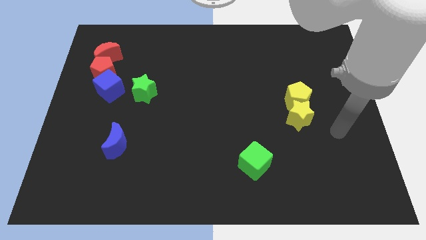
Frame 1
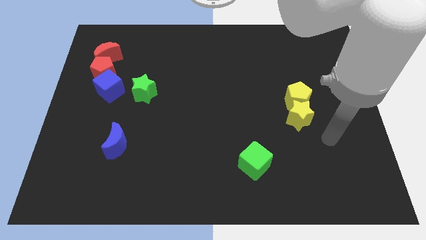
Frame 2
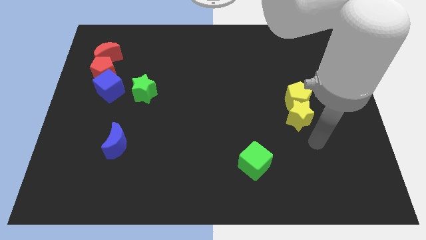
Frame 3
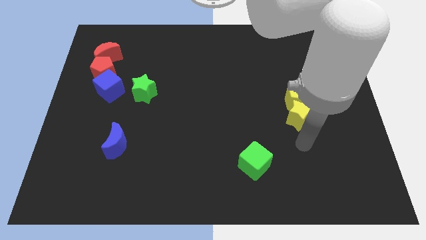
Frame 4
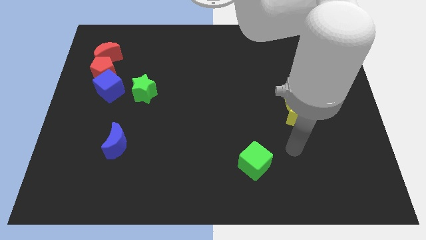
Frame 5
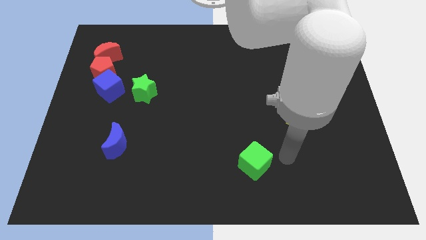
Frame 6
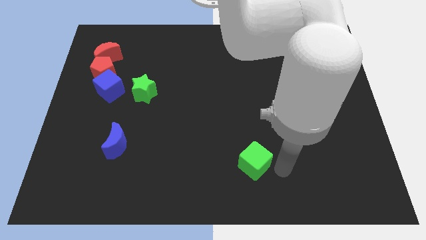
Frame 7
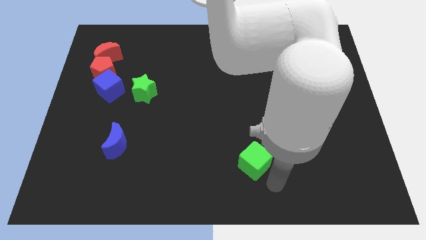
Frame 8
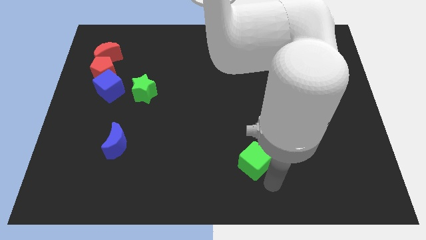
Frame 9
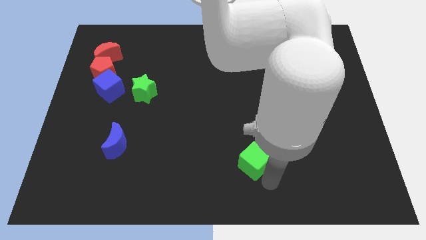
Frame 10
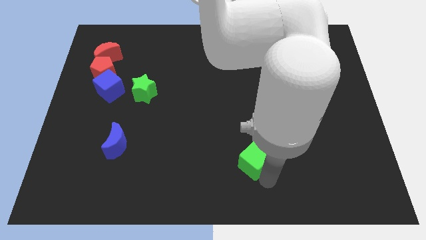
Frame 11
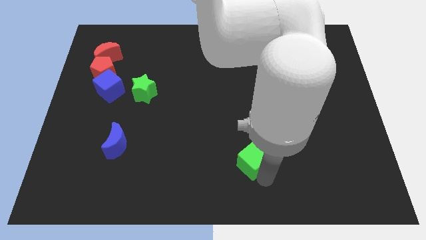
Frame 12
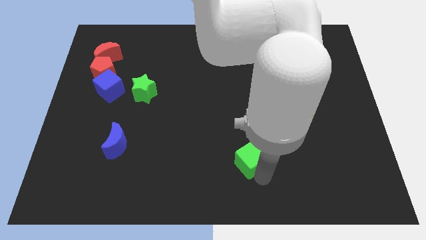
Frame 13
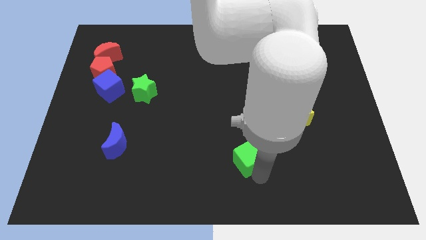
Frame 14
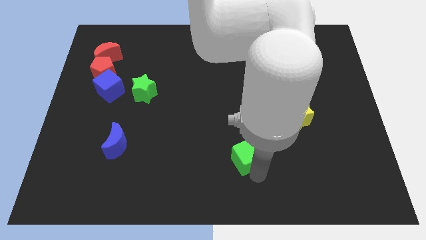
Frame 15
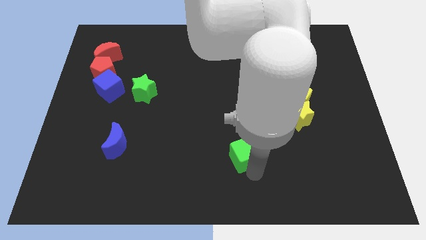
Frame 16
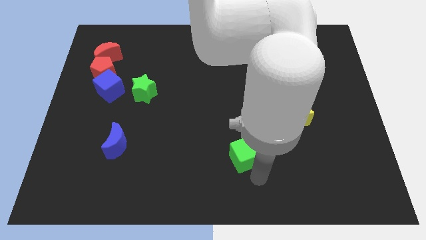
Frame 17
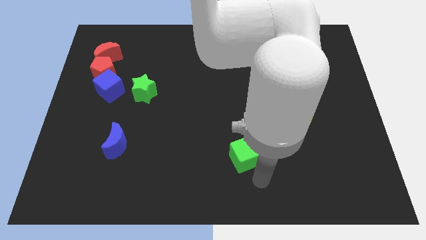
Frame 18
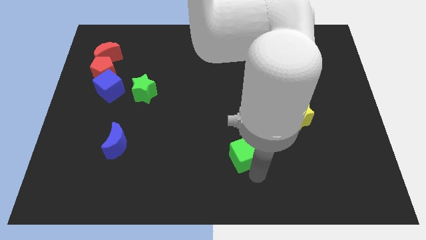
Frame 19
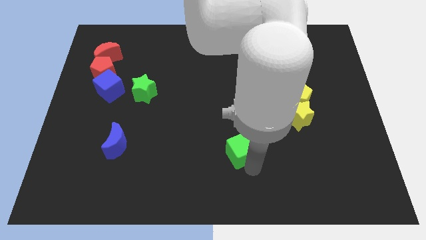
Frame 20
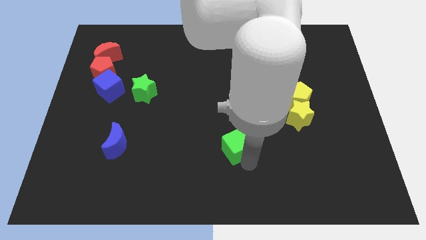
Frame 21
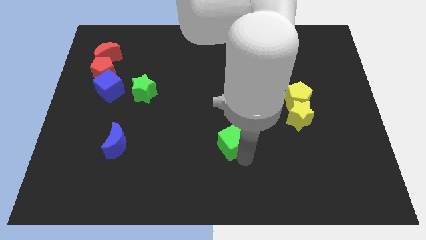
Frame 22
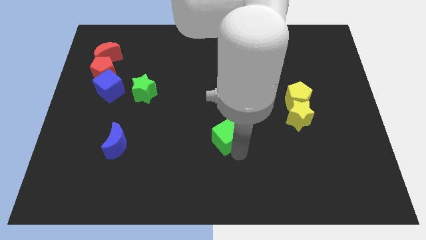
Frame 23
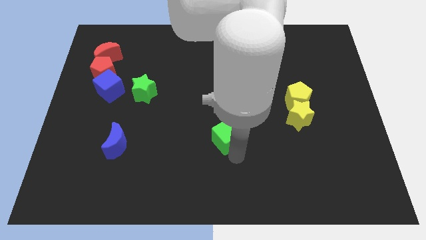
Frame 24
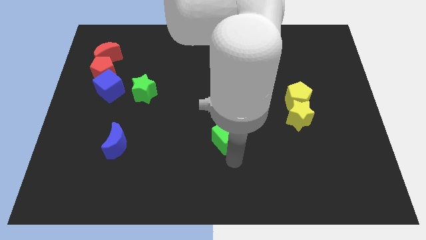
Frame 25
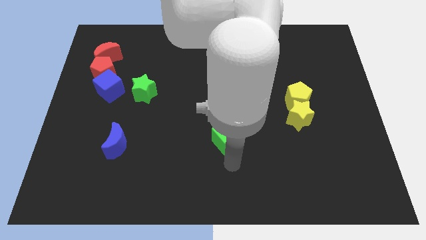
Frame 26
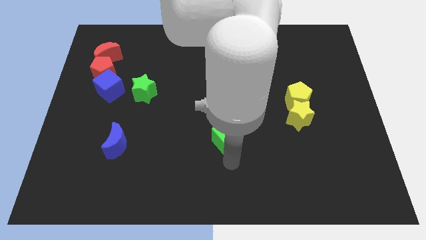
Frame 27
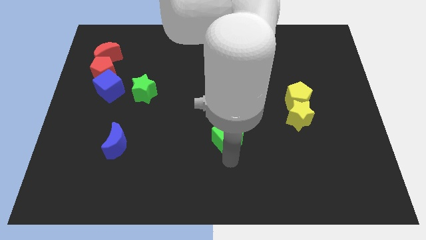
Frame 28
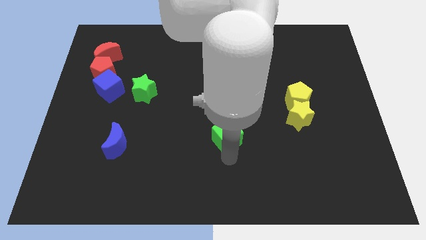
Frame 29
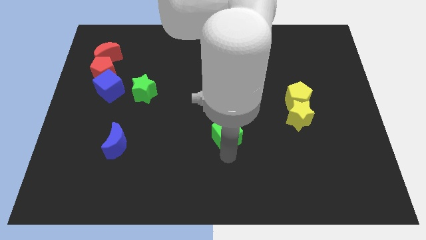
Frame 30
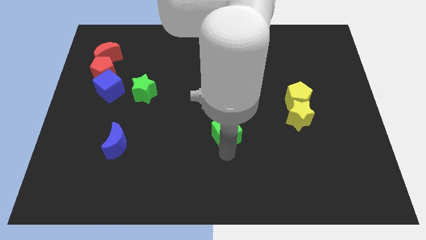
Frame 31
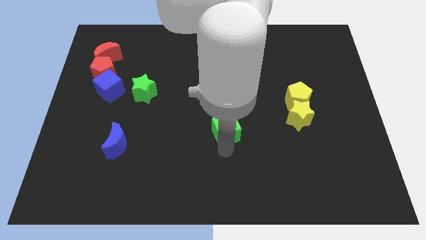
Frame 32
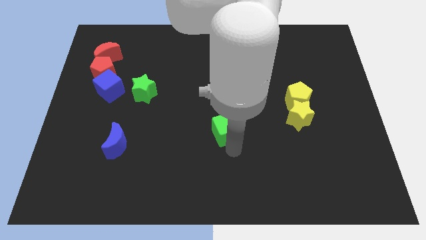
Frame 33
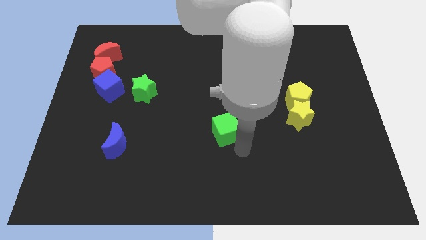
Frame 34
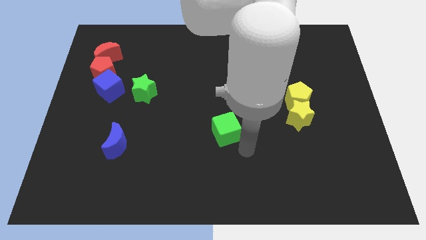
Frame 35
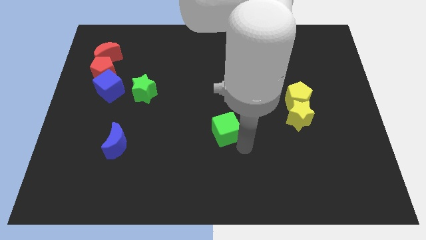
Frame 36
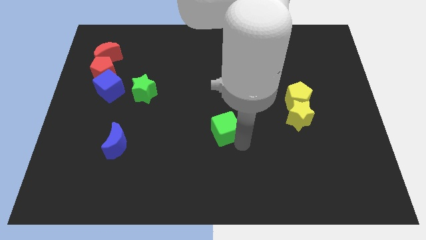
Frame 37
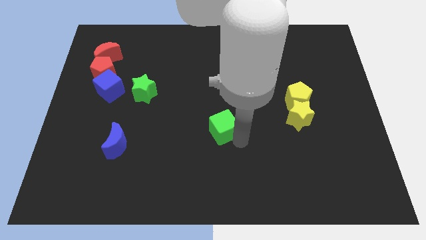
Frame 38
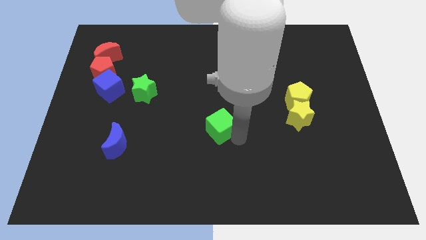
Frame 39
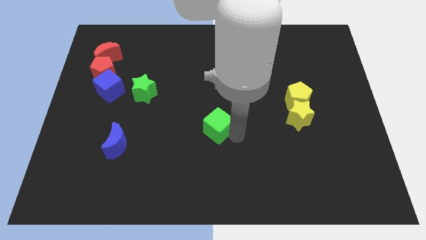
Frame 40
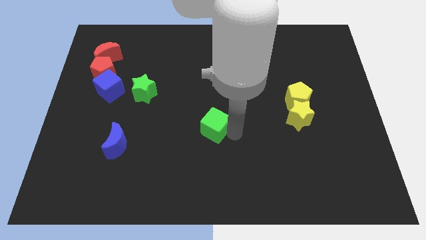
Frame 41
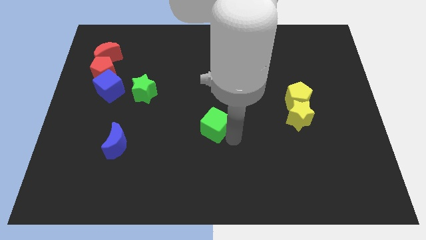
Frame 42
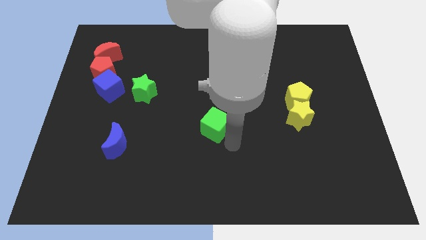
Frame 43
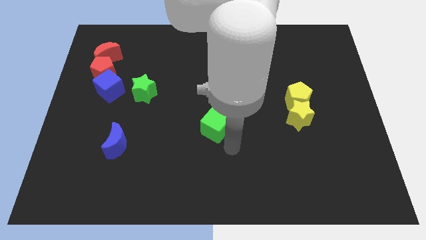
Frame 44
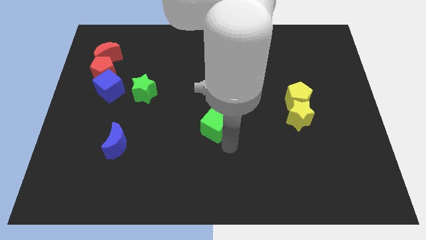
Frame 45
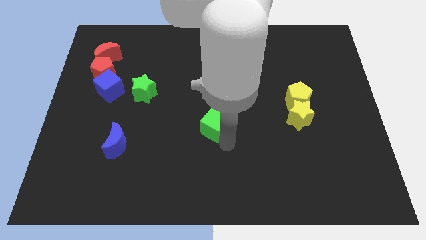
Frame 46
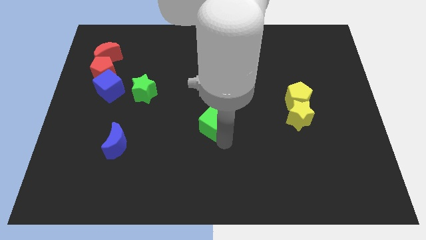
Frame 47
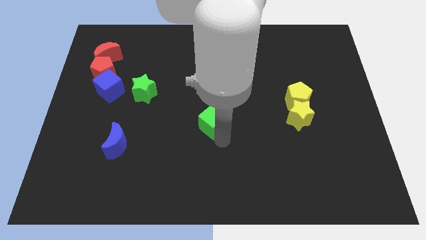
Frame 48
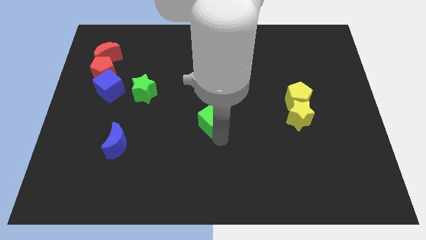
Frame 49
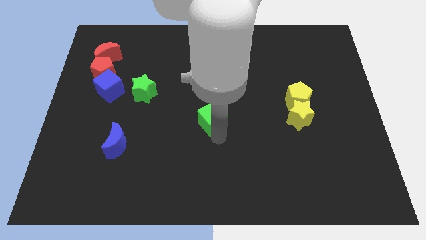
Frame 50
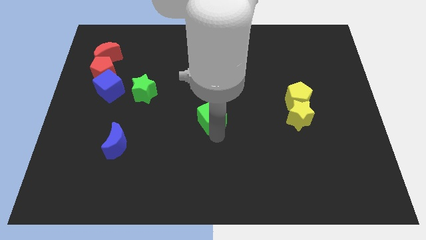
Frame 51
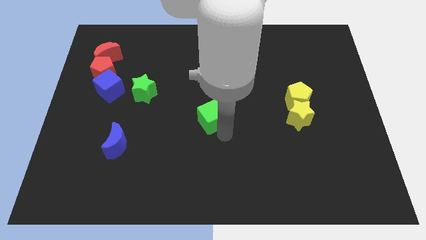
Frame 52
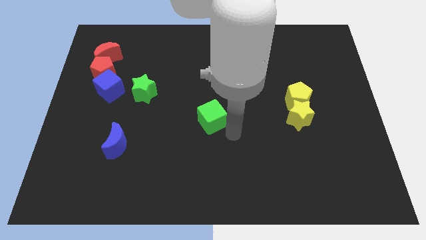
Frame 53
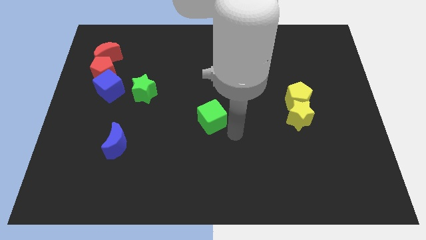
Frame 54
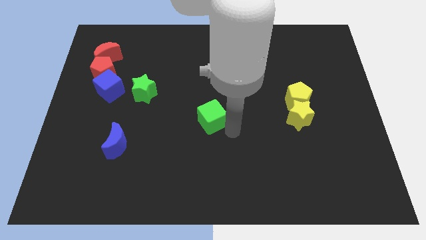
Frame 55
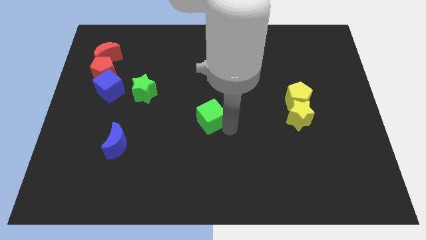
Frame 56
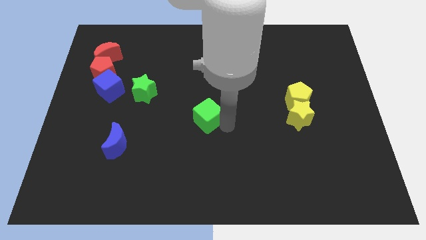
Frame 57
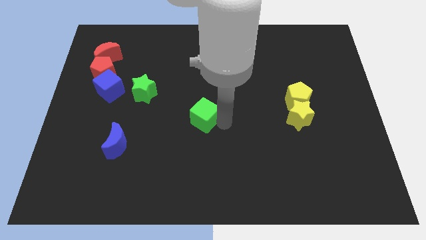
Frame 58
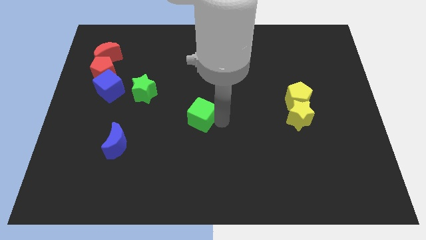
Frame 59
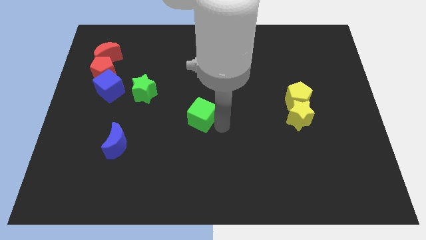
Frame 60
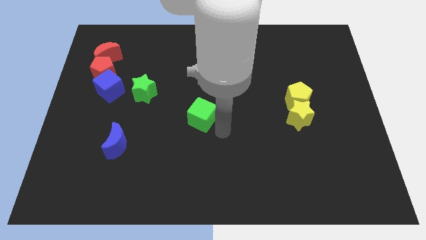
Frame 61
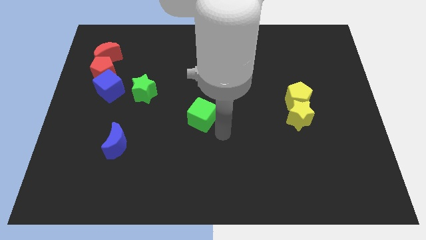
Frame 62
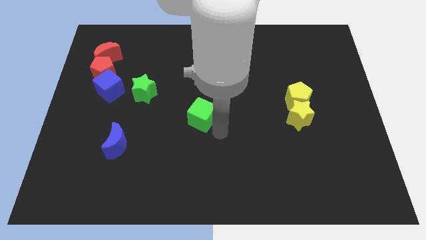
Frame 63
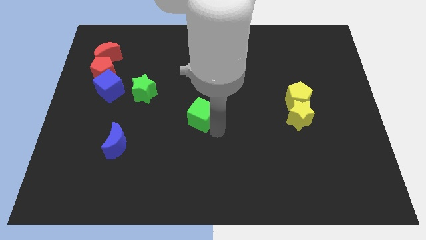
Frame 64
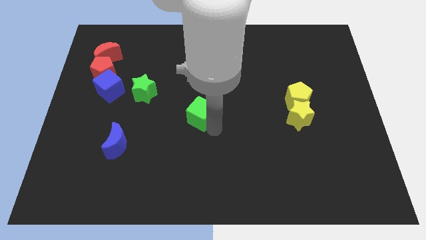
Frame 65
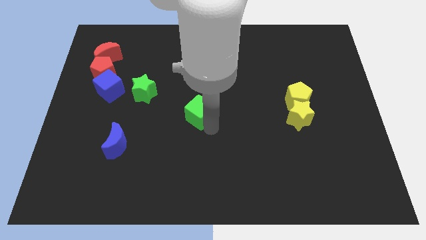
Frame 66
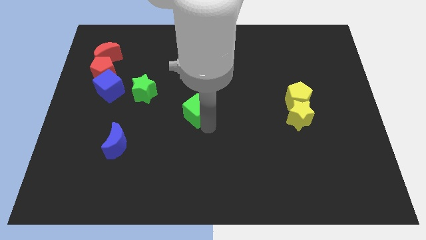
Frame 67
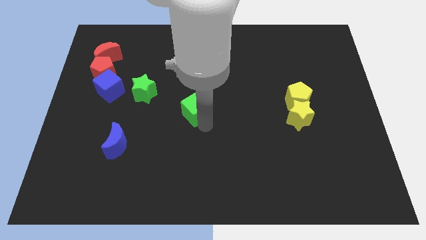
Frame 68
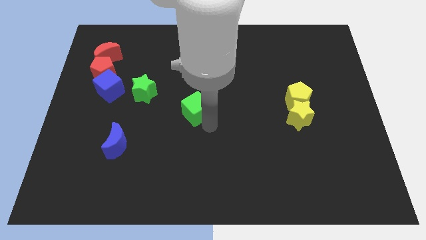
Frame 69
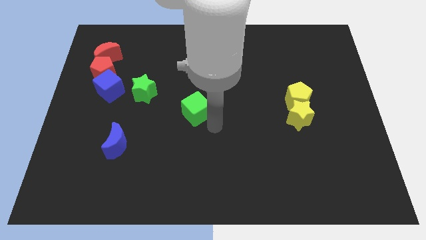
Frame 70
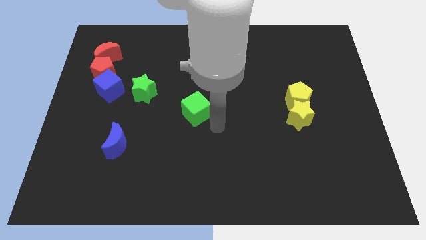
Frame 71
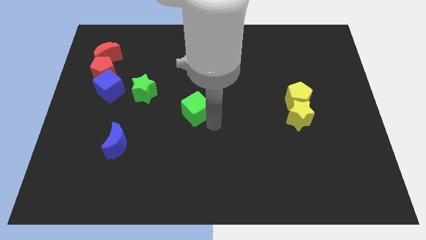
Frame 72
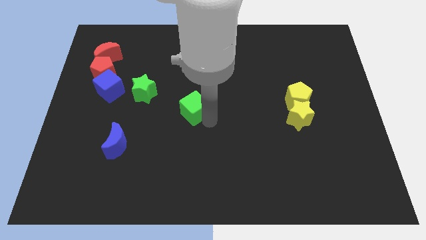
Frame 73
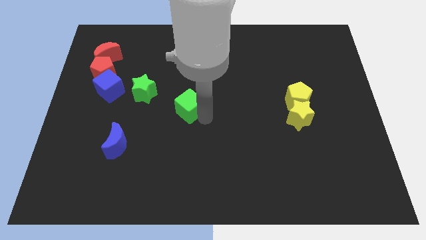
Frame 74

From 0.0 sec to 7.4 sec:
push the green cube up and to the left

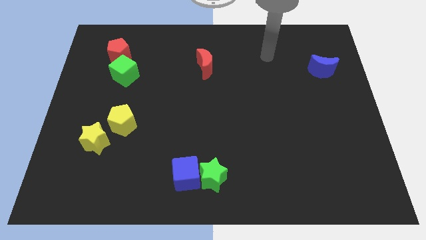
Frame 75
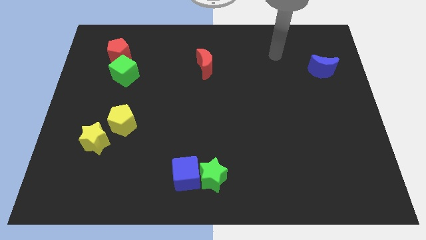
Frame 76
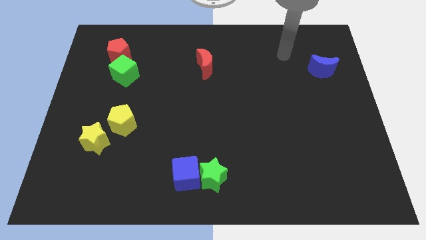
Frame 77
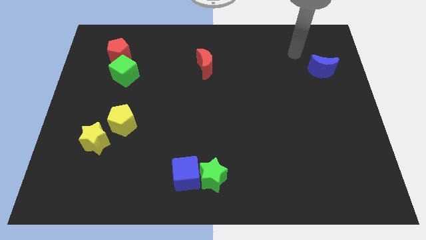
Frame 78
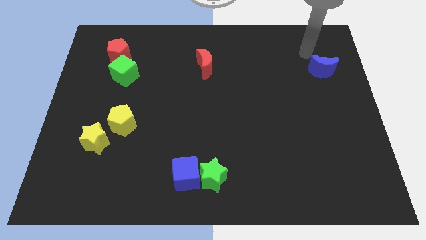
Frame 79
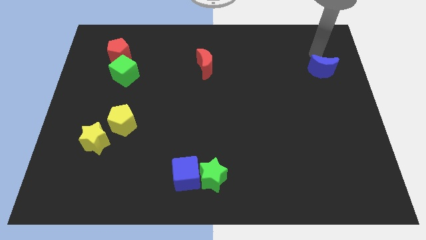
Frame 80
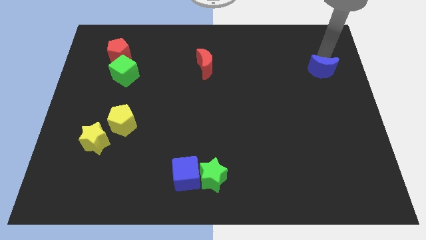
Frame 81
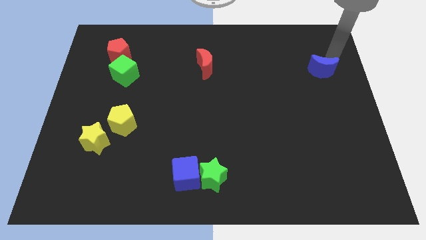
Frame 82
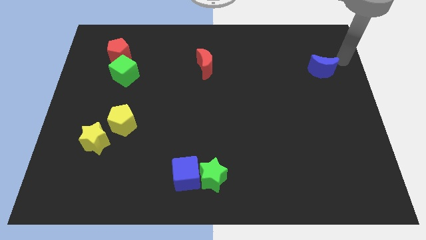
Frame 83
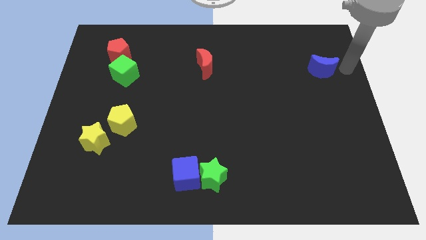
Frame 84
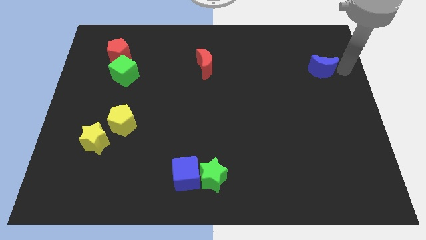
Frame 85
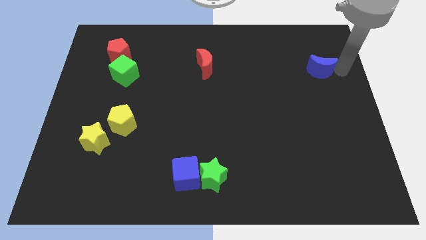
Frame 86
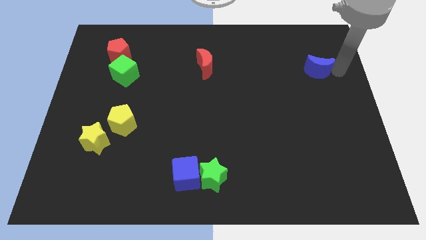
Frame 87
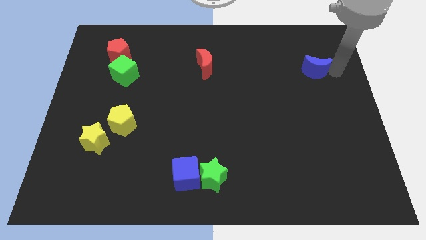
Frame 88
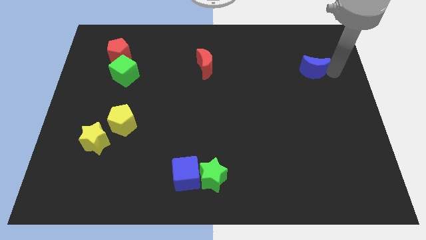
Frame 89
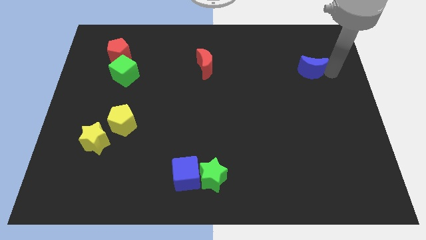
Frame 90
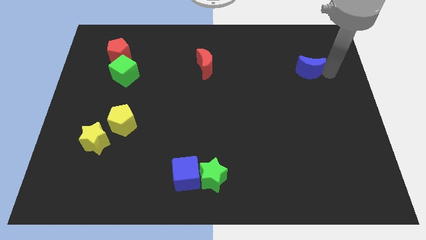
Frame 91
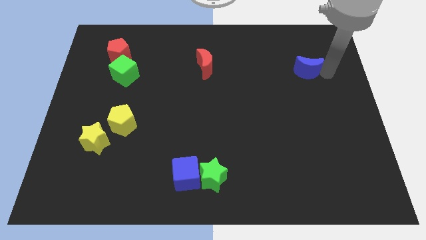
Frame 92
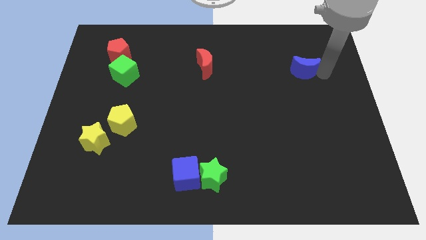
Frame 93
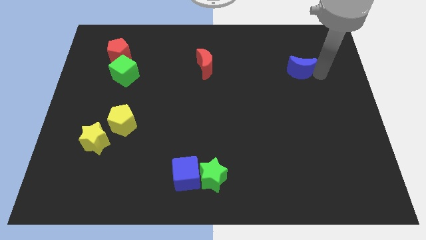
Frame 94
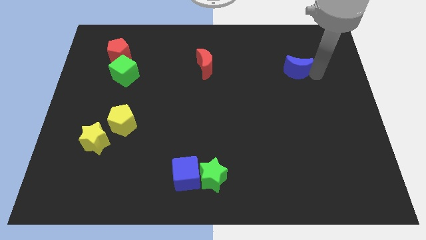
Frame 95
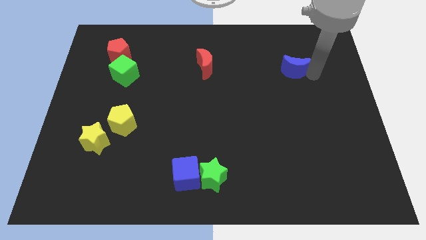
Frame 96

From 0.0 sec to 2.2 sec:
slide the blue moon to the left a little
